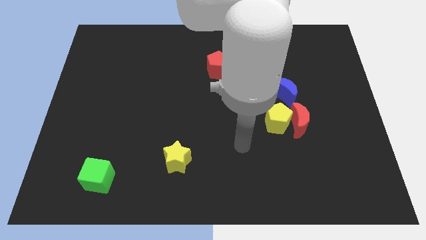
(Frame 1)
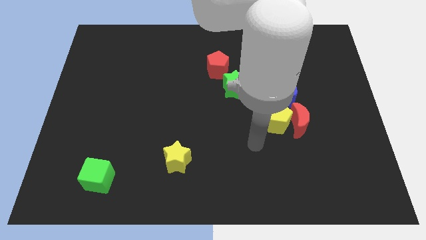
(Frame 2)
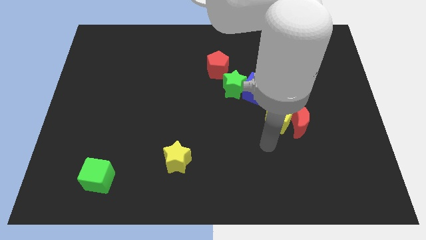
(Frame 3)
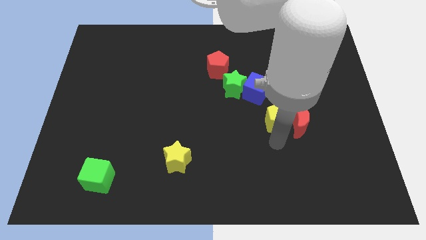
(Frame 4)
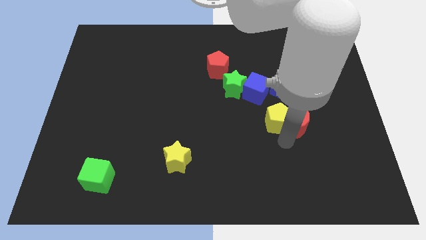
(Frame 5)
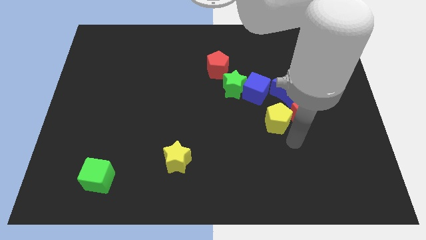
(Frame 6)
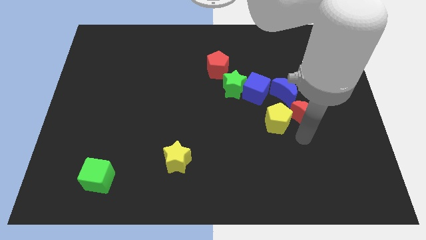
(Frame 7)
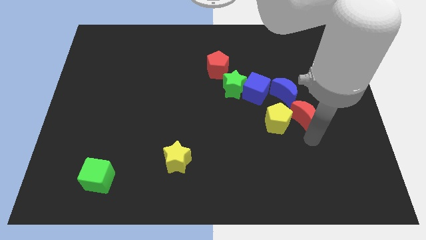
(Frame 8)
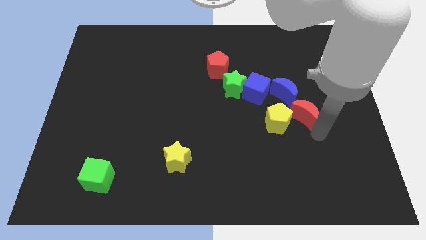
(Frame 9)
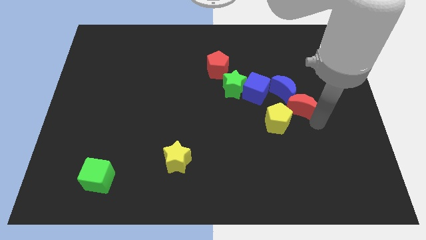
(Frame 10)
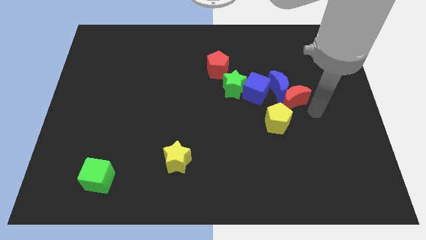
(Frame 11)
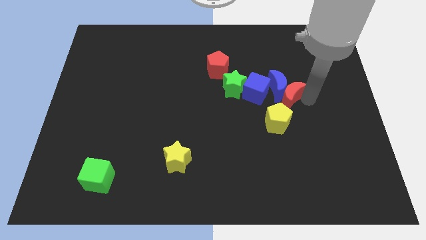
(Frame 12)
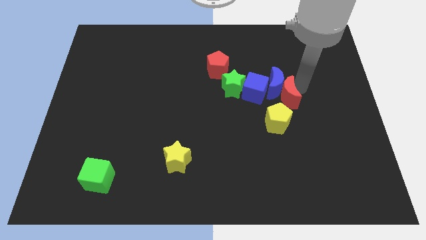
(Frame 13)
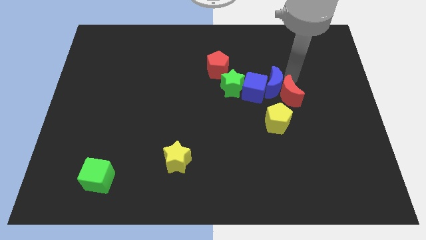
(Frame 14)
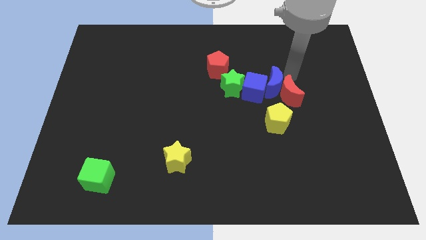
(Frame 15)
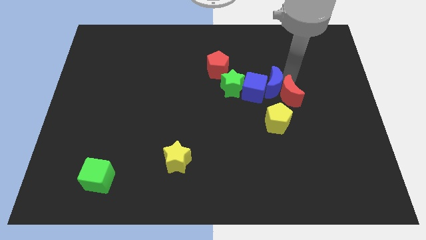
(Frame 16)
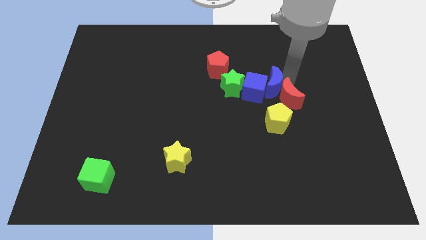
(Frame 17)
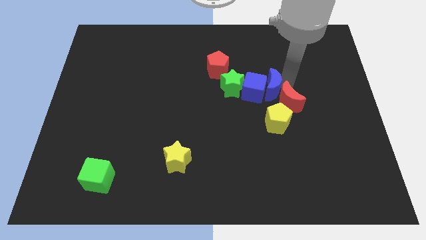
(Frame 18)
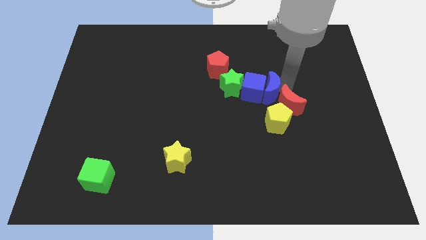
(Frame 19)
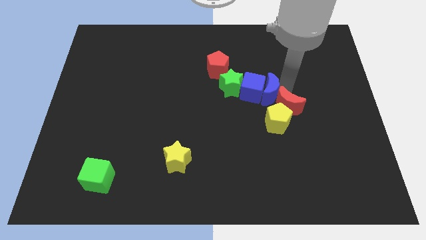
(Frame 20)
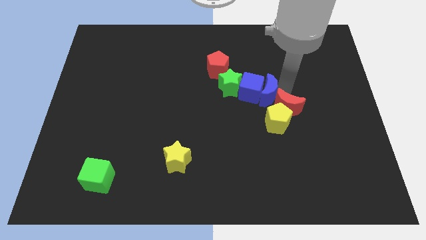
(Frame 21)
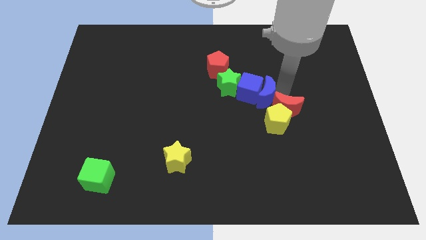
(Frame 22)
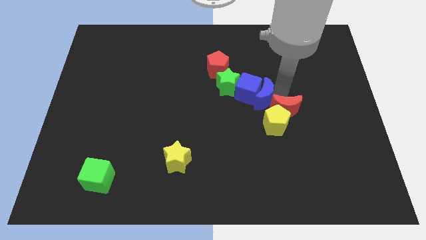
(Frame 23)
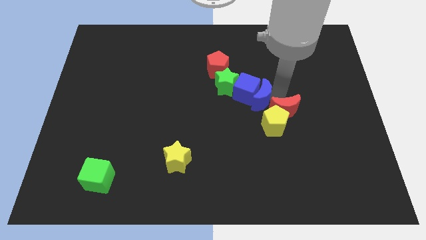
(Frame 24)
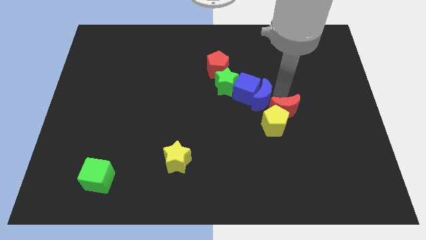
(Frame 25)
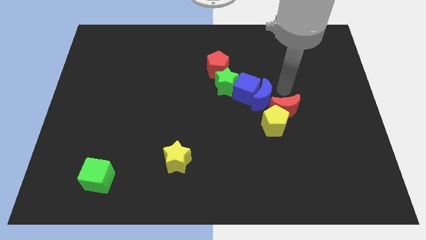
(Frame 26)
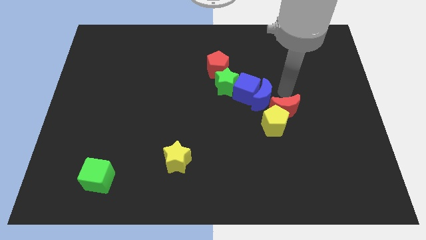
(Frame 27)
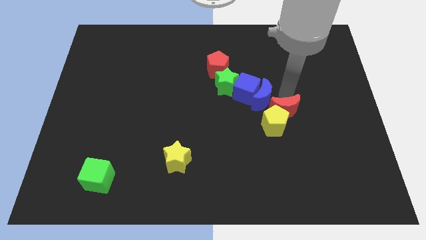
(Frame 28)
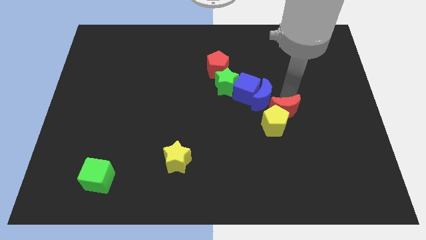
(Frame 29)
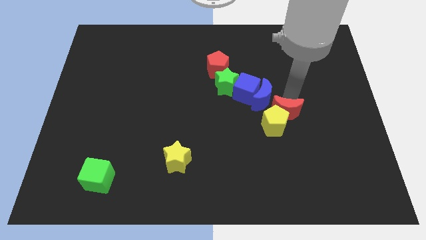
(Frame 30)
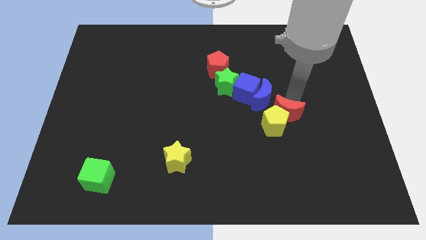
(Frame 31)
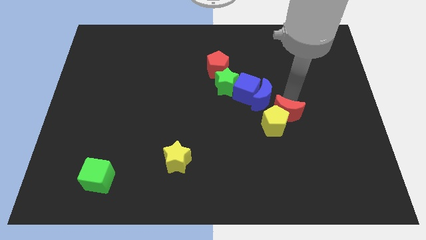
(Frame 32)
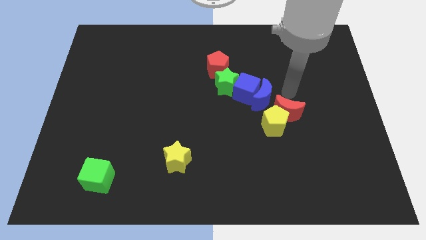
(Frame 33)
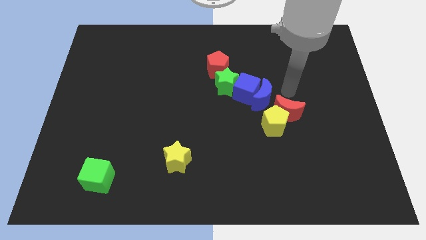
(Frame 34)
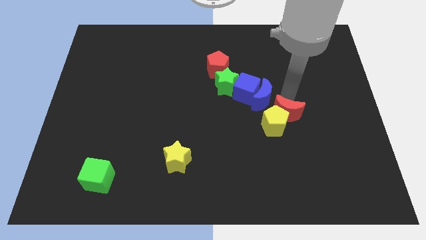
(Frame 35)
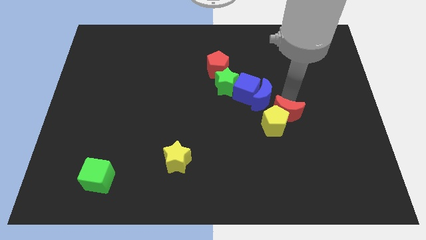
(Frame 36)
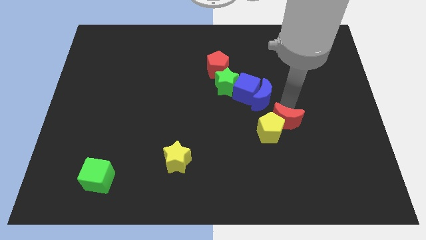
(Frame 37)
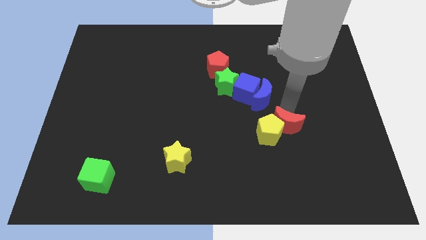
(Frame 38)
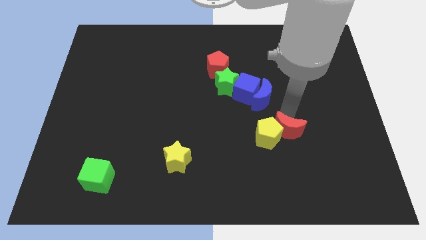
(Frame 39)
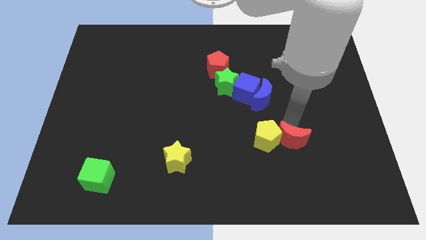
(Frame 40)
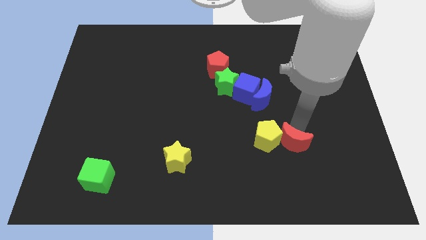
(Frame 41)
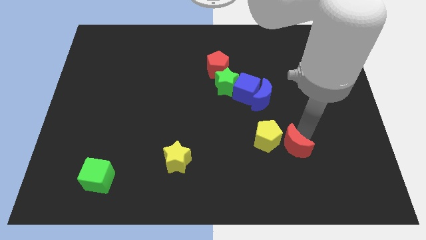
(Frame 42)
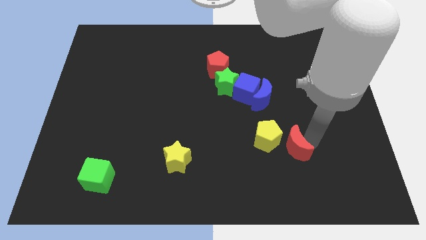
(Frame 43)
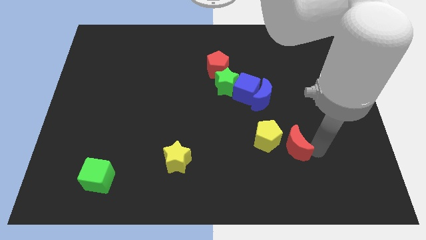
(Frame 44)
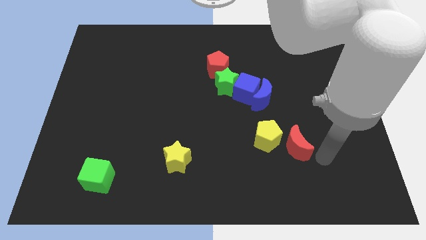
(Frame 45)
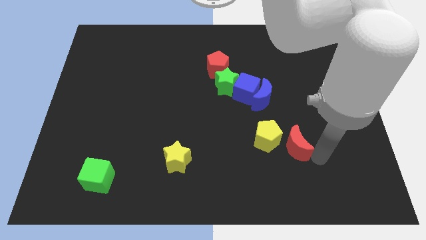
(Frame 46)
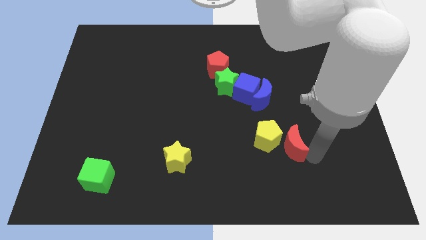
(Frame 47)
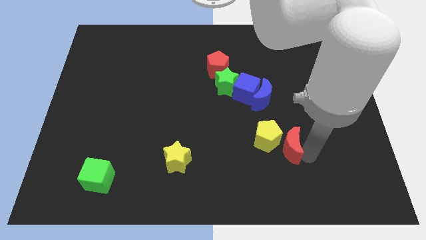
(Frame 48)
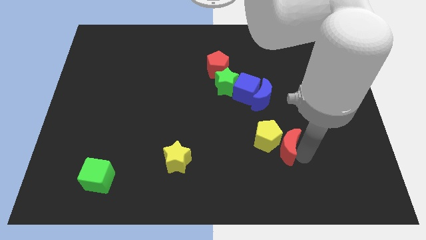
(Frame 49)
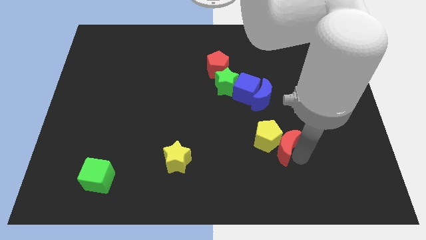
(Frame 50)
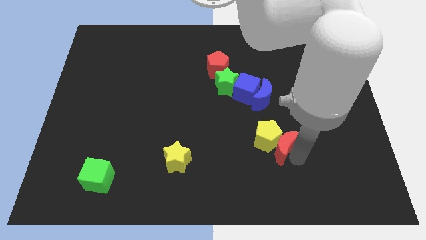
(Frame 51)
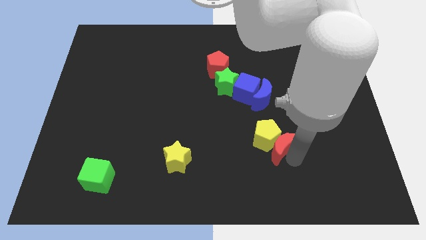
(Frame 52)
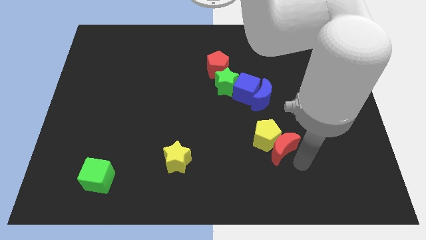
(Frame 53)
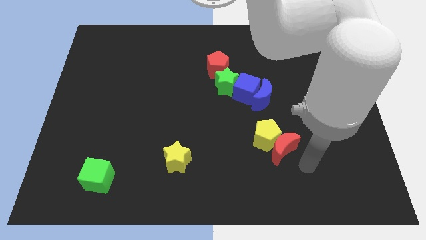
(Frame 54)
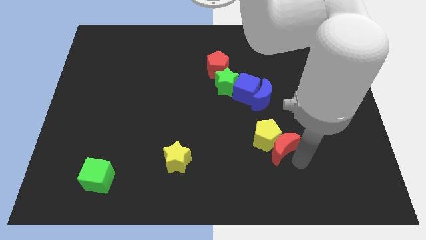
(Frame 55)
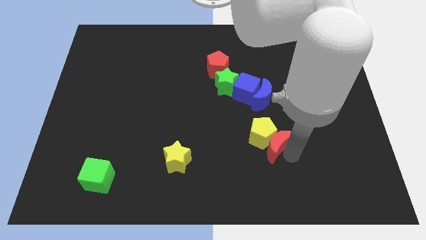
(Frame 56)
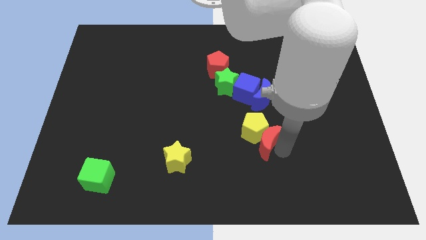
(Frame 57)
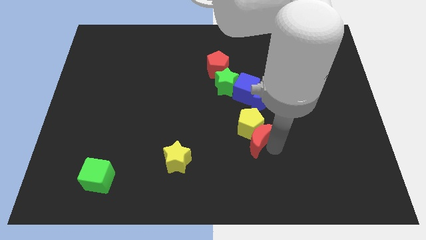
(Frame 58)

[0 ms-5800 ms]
slide the red moon below the blue cube

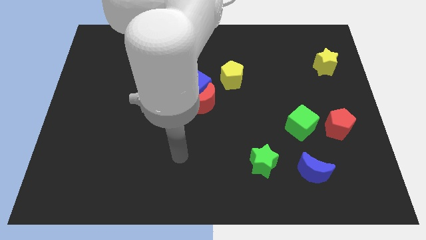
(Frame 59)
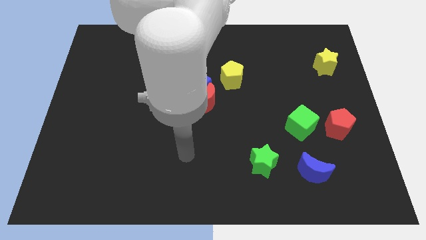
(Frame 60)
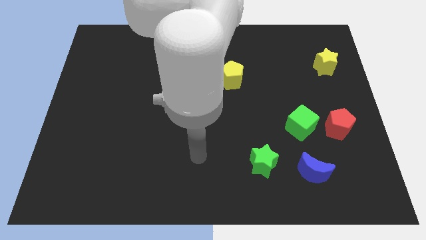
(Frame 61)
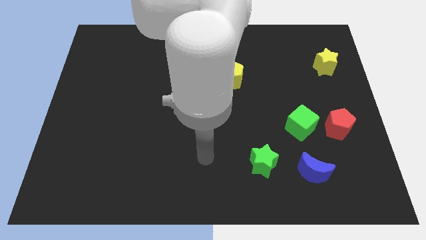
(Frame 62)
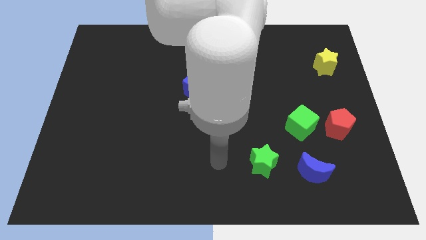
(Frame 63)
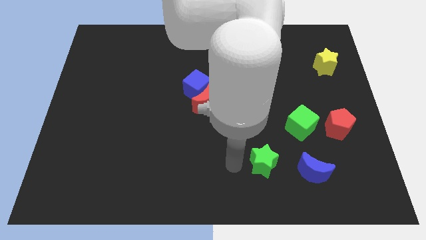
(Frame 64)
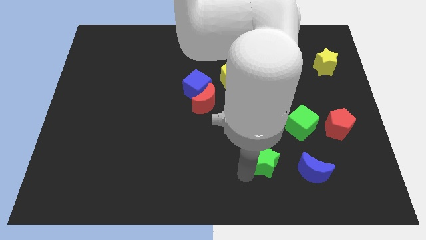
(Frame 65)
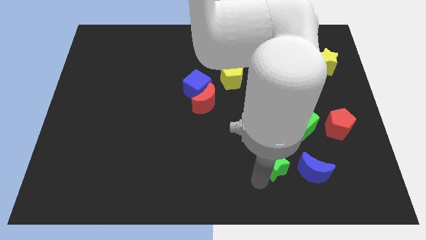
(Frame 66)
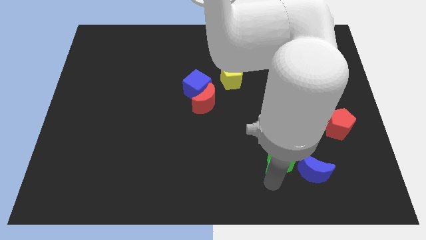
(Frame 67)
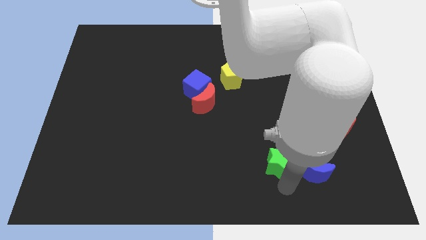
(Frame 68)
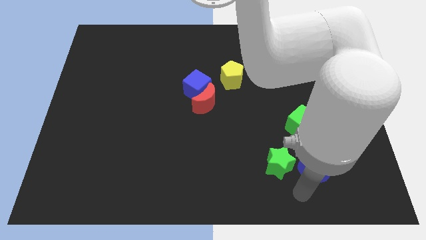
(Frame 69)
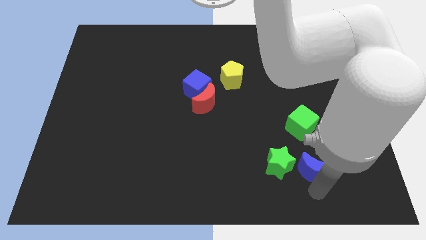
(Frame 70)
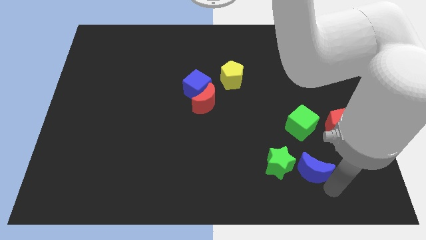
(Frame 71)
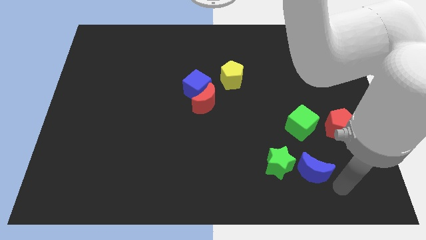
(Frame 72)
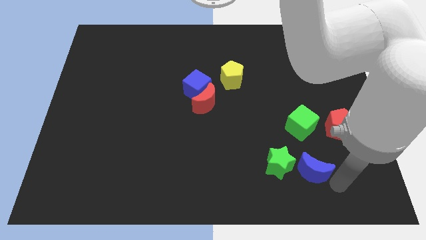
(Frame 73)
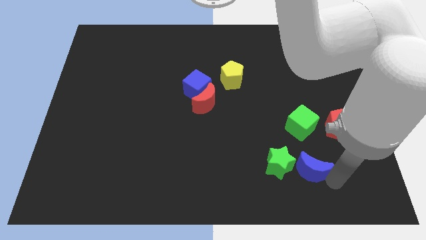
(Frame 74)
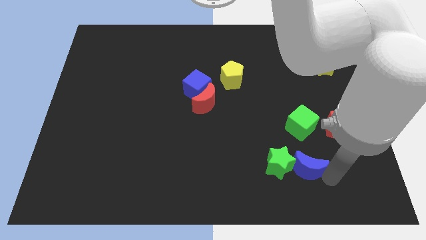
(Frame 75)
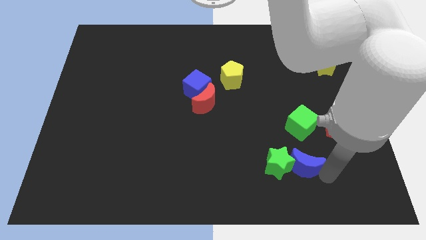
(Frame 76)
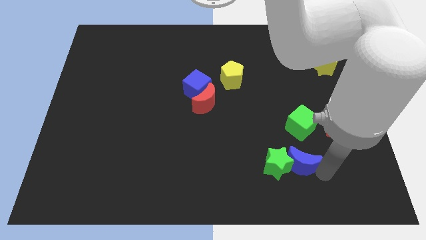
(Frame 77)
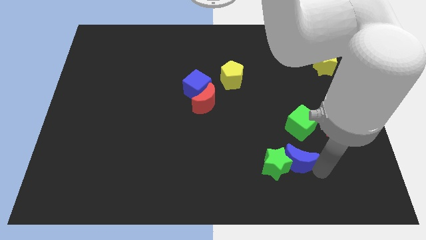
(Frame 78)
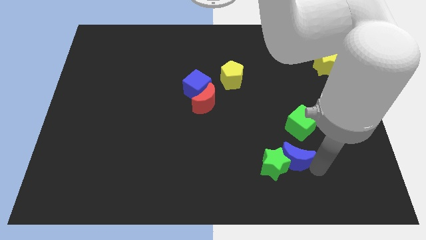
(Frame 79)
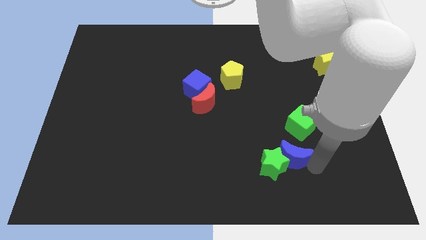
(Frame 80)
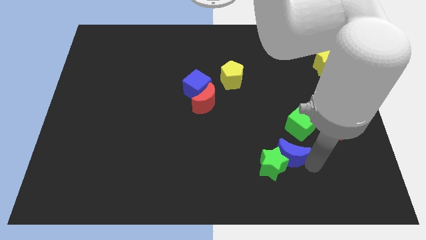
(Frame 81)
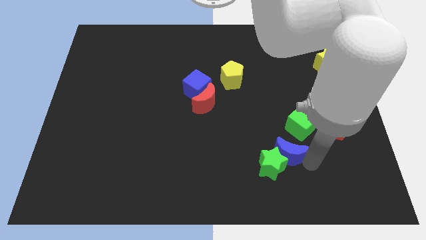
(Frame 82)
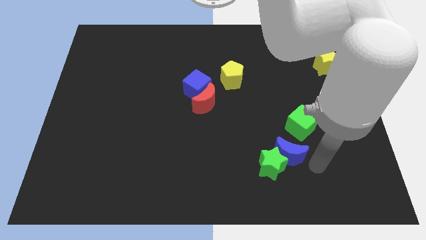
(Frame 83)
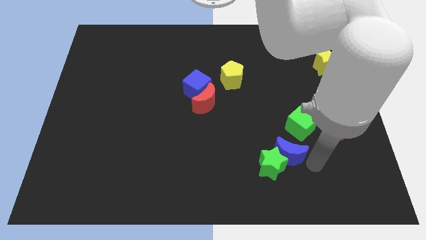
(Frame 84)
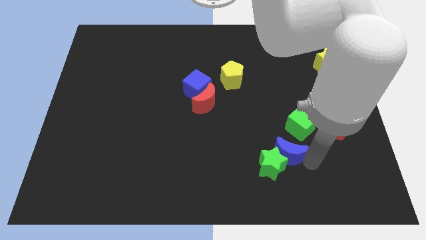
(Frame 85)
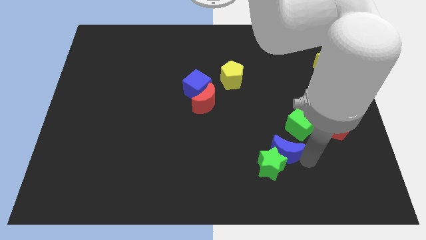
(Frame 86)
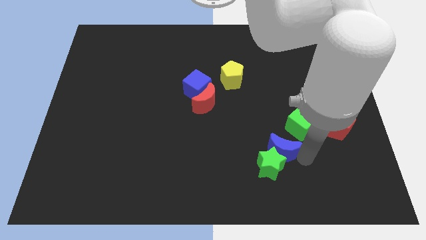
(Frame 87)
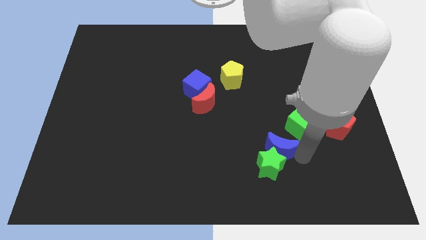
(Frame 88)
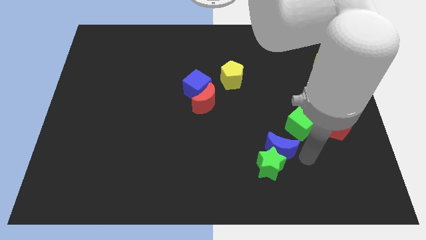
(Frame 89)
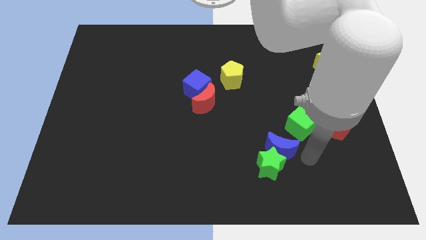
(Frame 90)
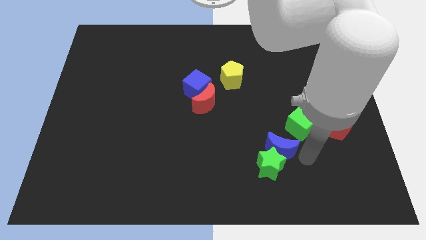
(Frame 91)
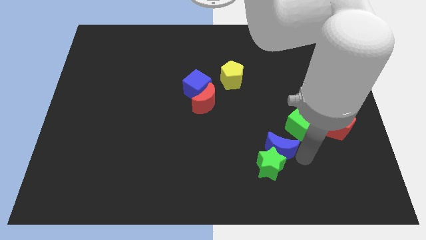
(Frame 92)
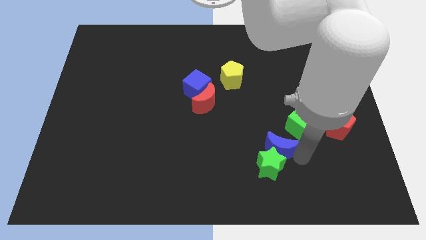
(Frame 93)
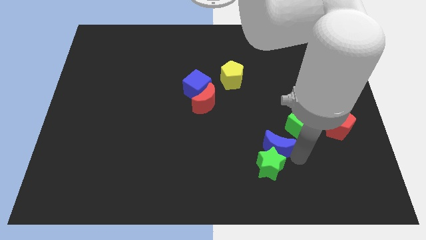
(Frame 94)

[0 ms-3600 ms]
slide the blue moon to the top left side of the green star
